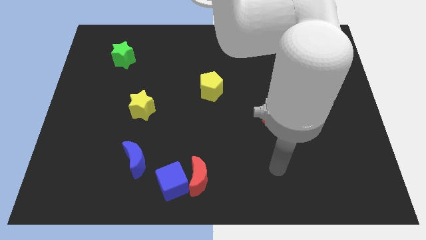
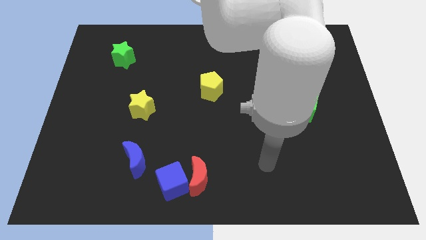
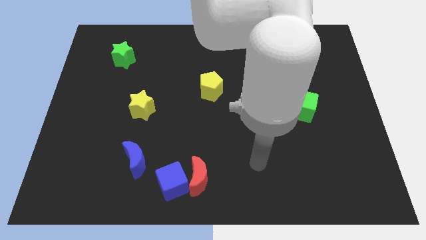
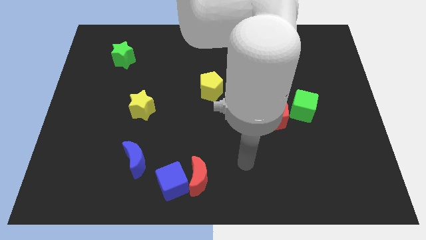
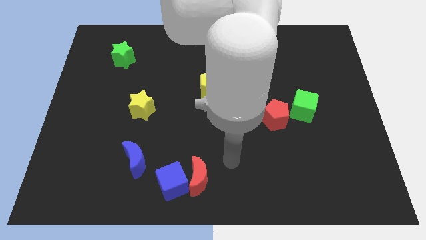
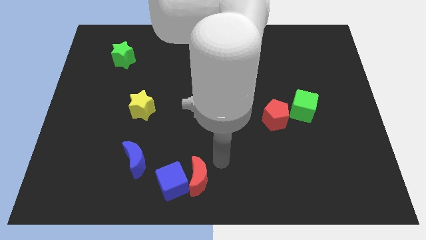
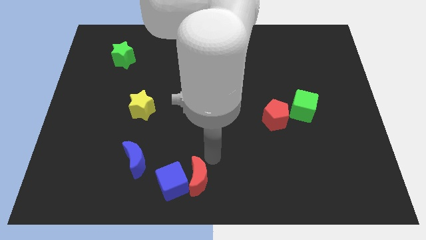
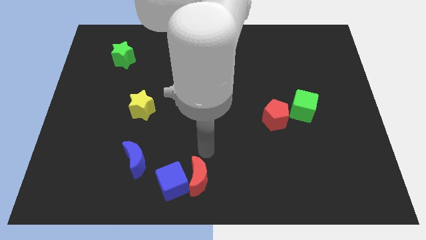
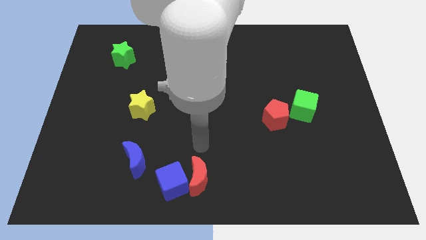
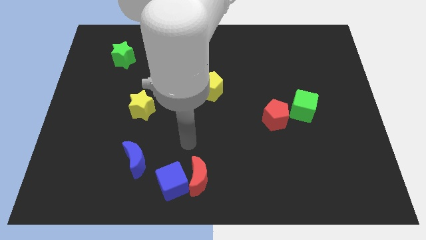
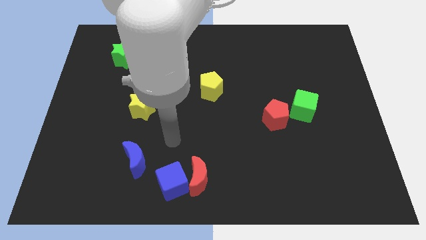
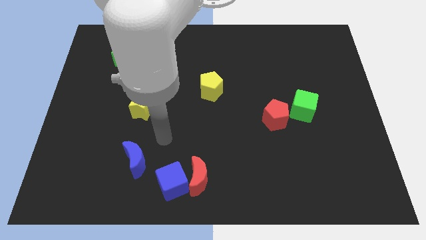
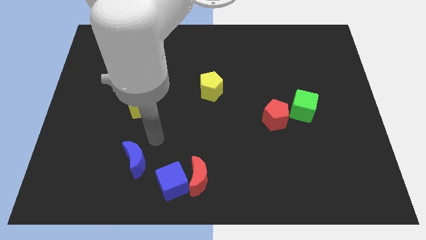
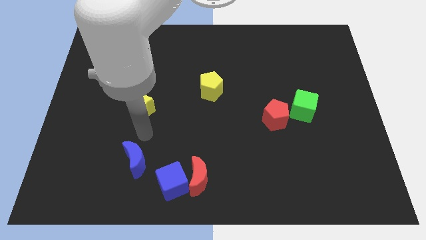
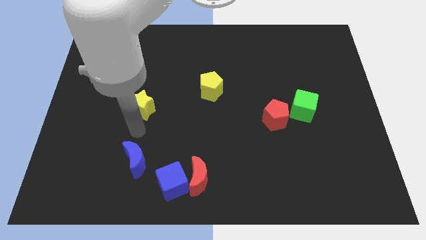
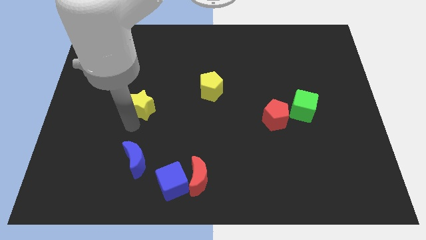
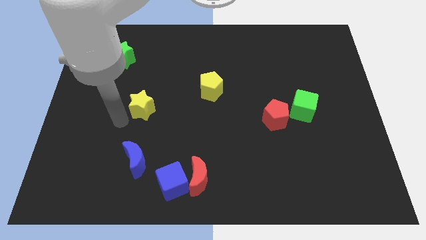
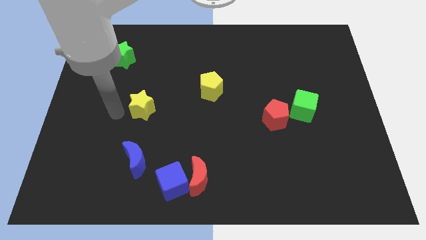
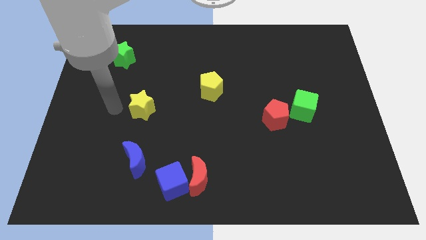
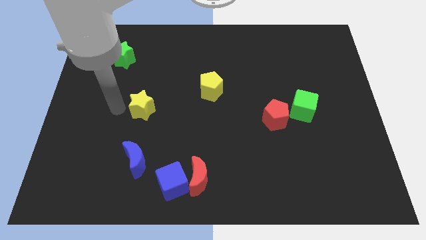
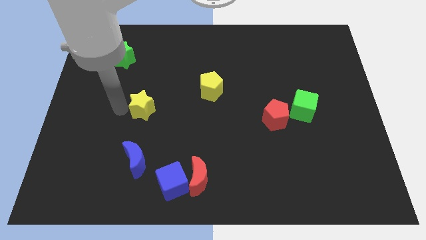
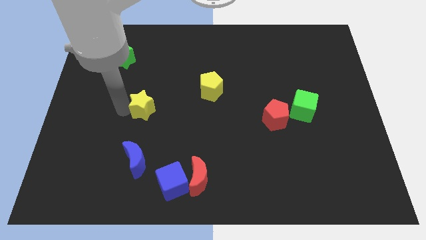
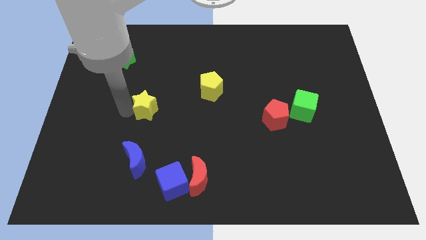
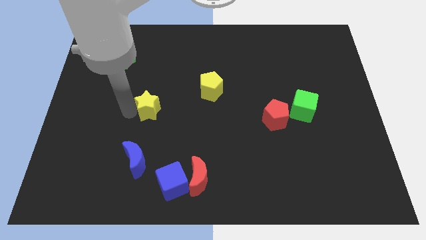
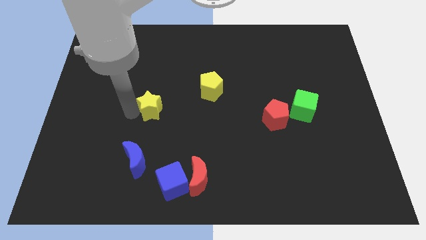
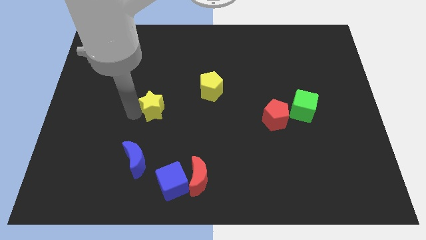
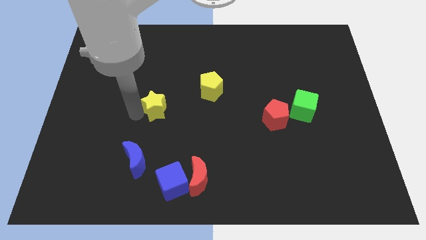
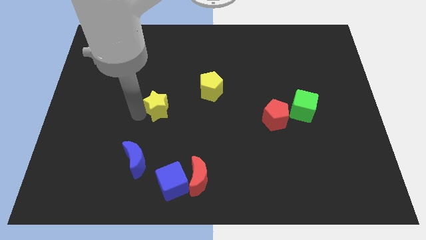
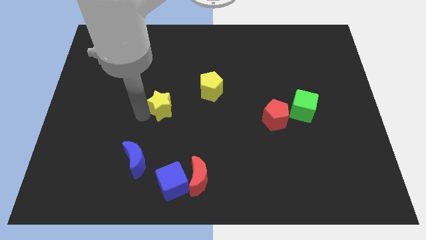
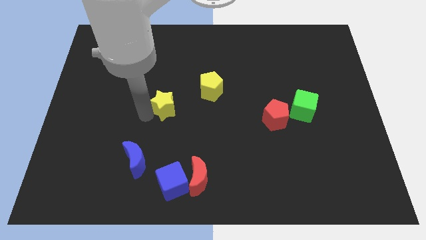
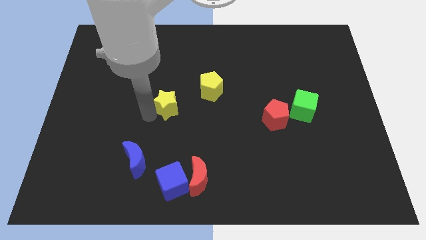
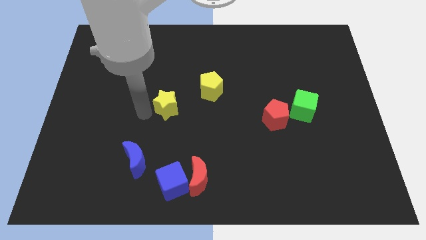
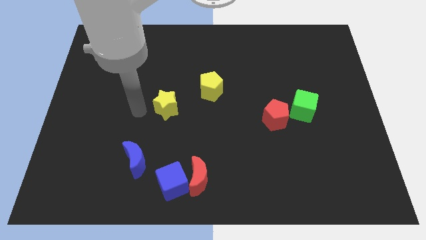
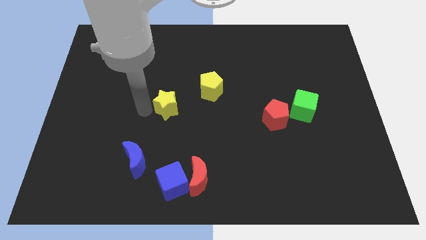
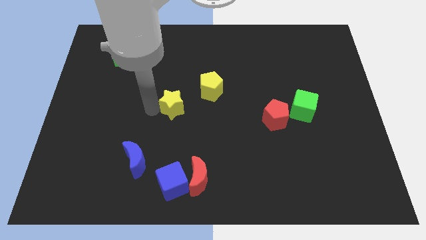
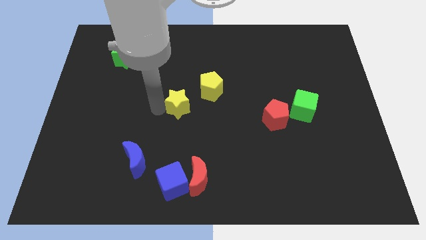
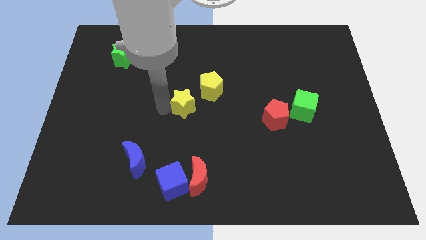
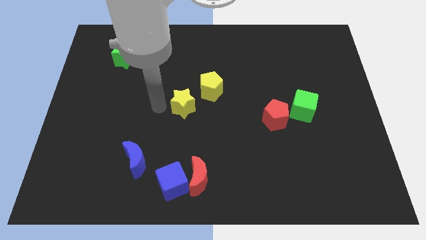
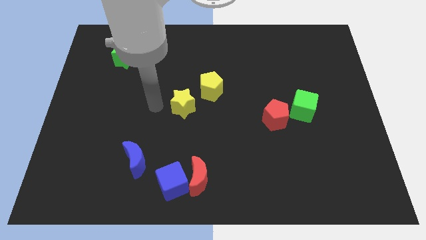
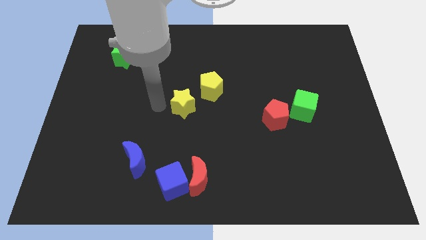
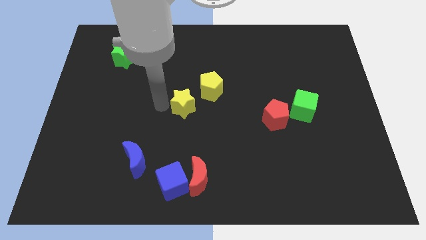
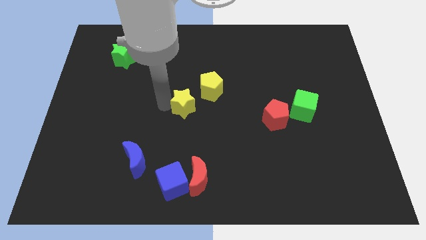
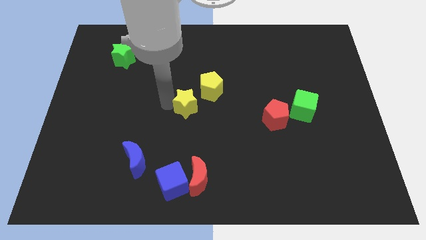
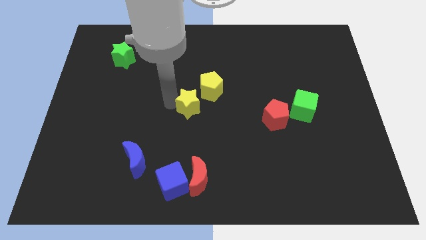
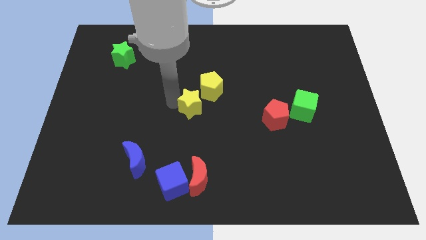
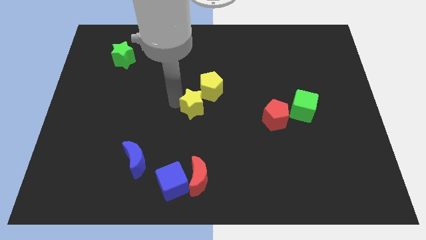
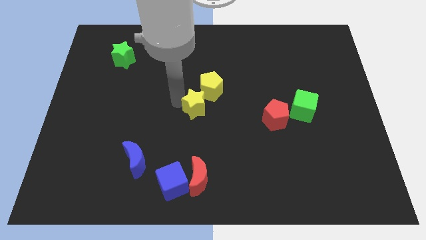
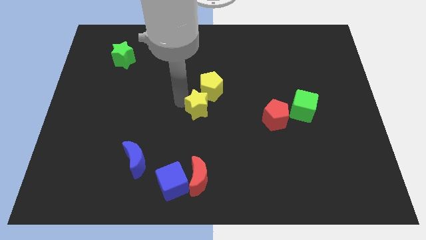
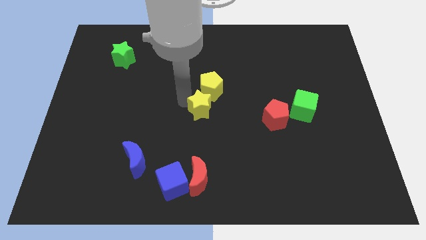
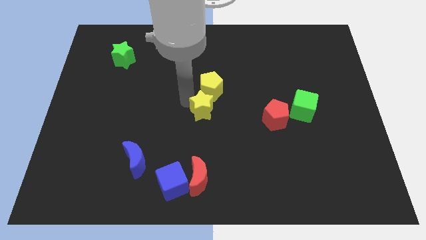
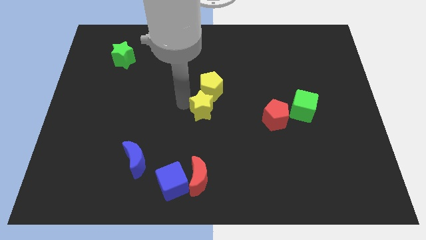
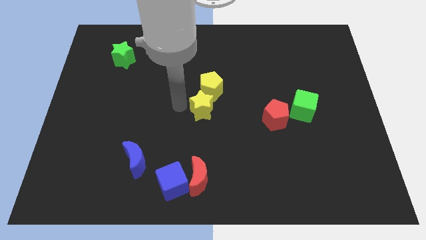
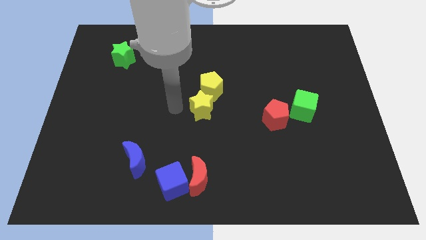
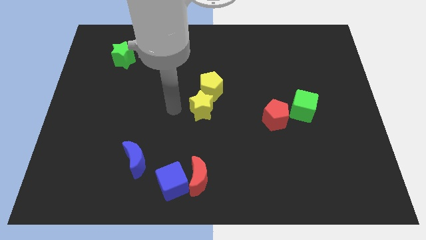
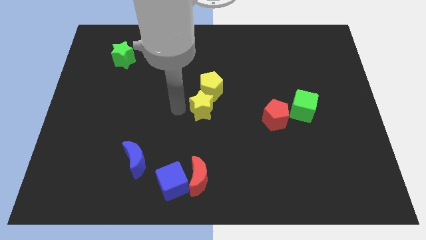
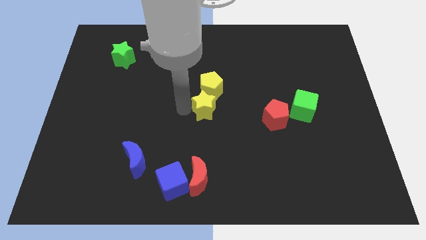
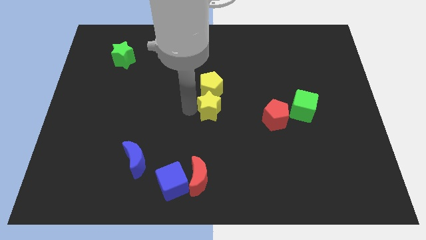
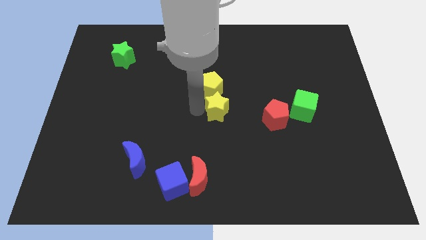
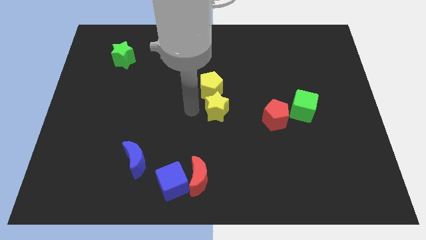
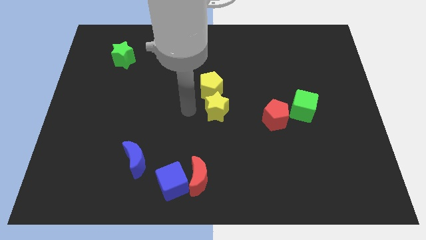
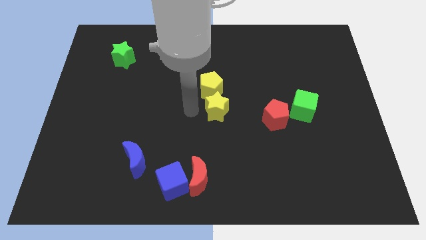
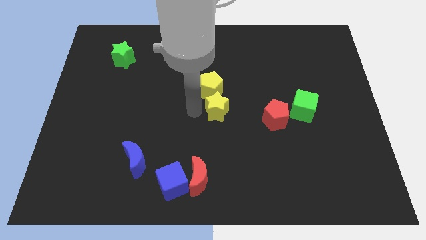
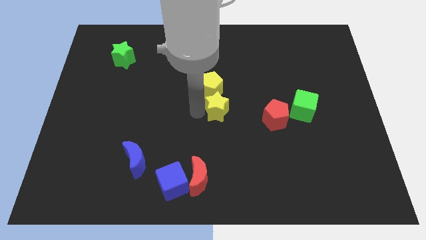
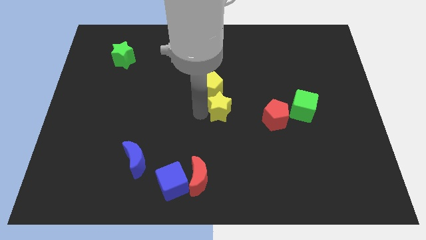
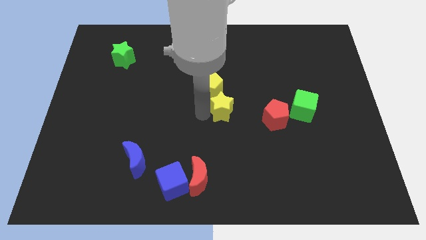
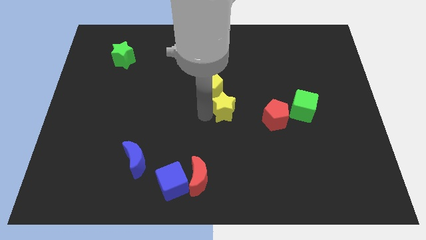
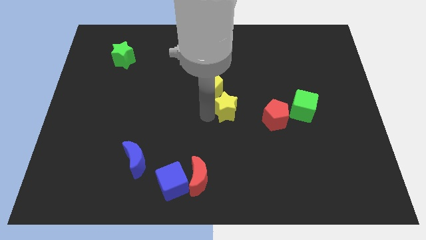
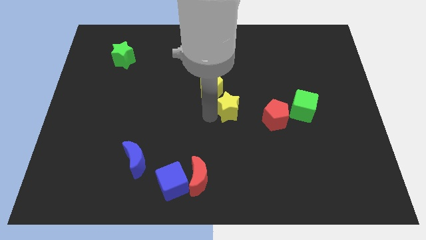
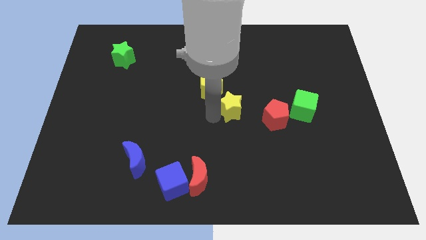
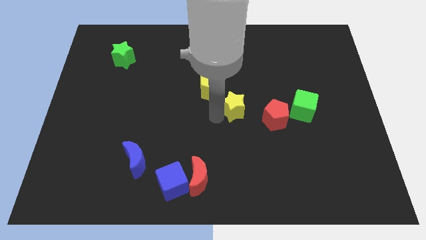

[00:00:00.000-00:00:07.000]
slide the yellow star just left of the green cube
